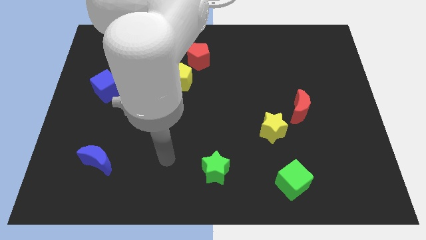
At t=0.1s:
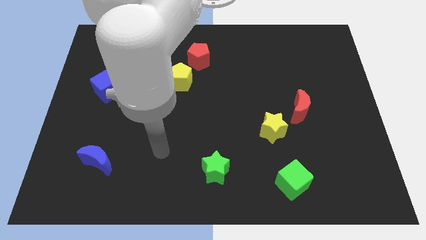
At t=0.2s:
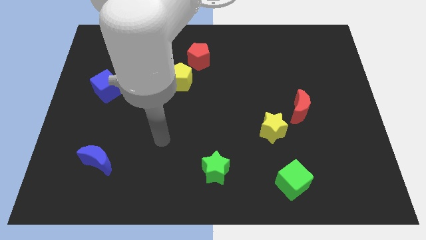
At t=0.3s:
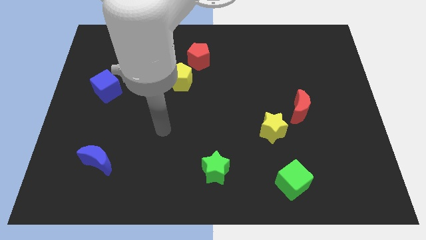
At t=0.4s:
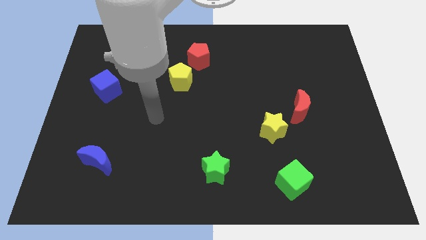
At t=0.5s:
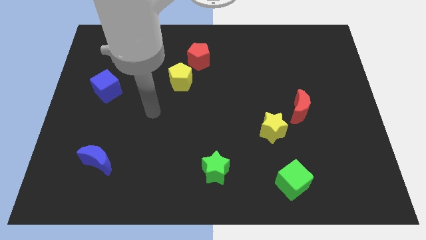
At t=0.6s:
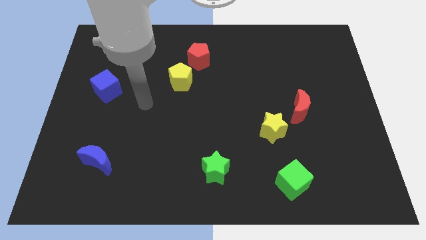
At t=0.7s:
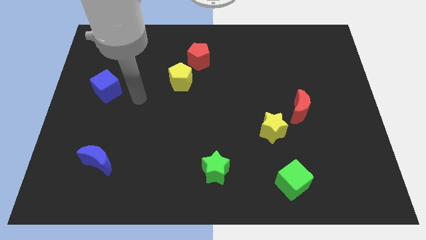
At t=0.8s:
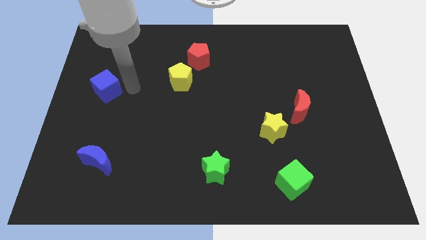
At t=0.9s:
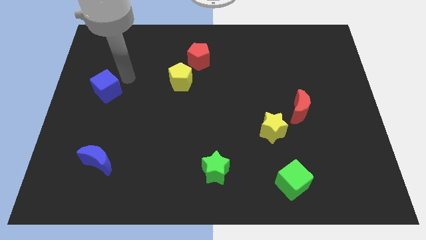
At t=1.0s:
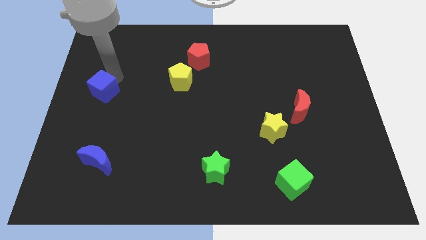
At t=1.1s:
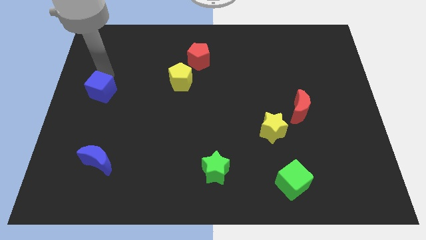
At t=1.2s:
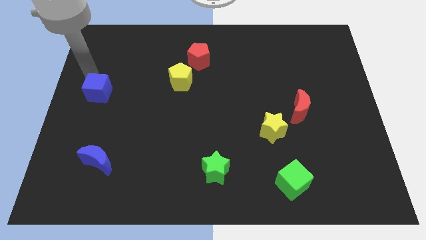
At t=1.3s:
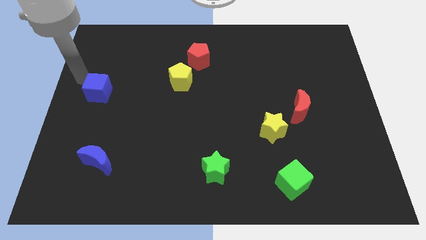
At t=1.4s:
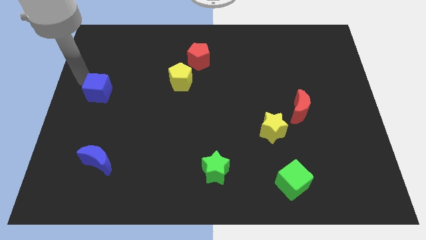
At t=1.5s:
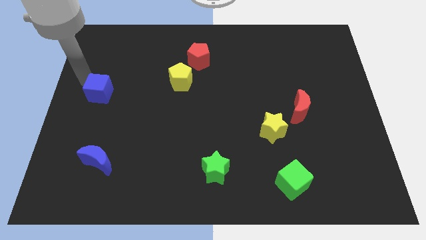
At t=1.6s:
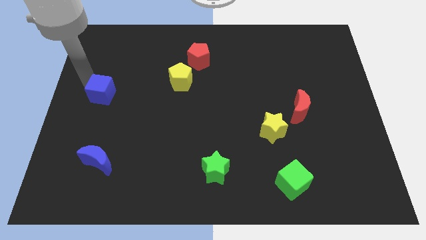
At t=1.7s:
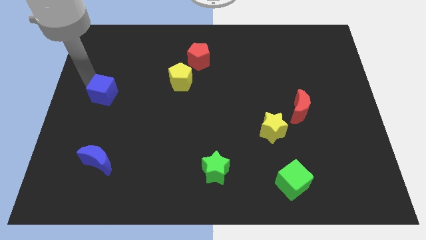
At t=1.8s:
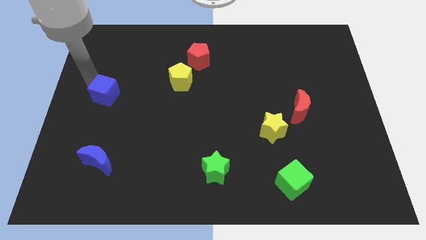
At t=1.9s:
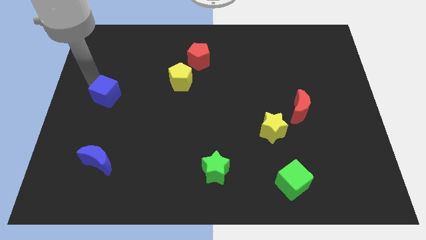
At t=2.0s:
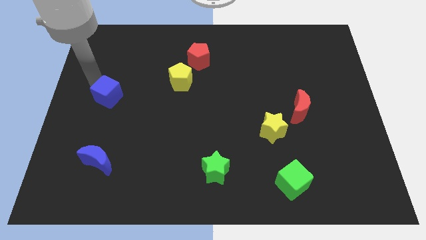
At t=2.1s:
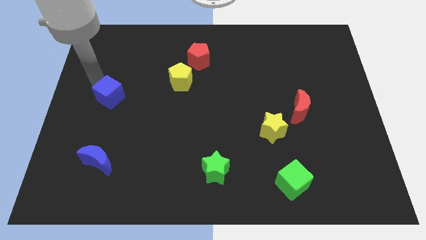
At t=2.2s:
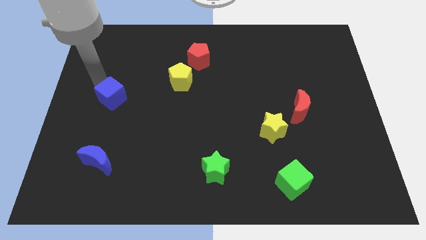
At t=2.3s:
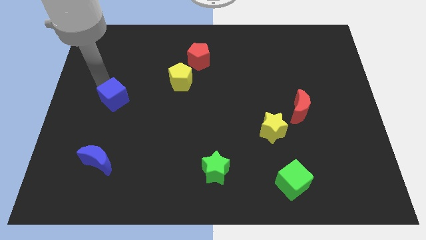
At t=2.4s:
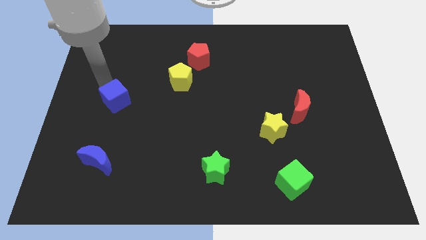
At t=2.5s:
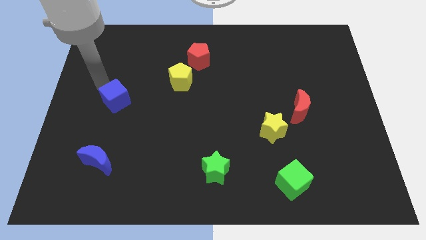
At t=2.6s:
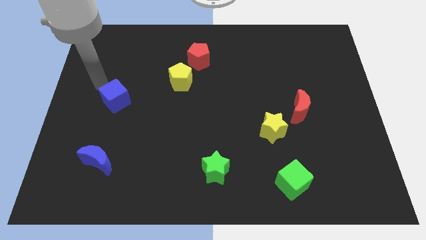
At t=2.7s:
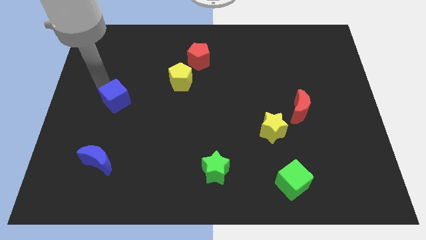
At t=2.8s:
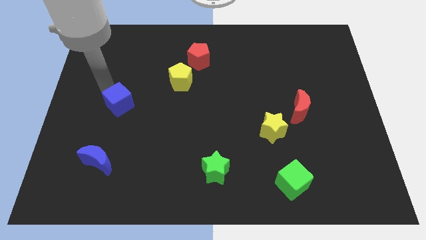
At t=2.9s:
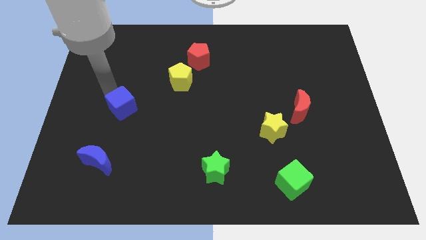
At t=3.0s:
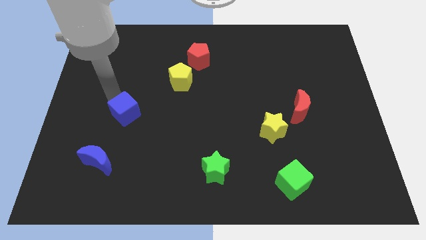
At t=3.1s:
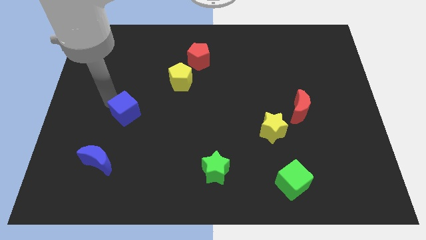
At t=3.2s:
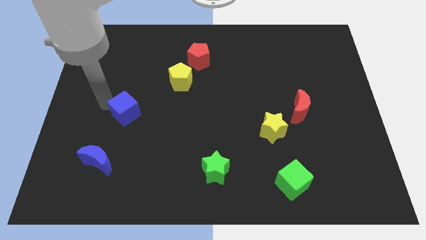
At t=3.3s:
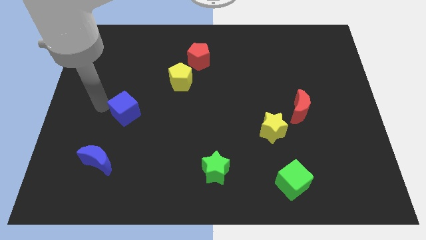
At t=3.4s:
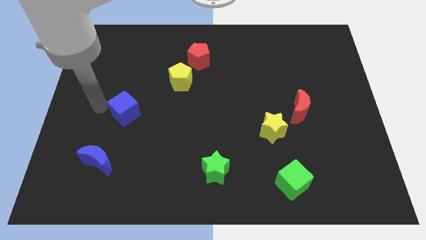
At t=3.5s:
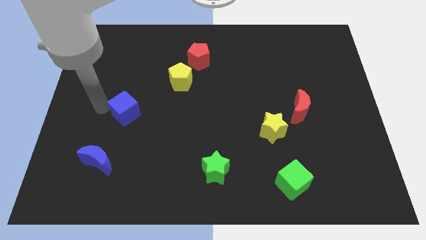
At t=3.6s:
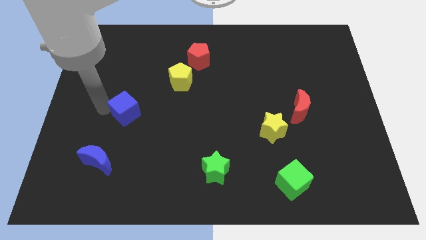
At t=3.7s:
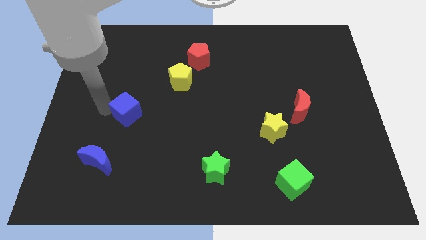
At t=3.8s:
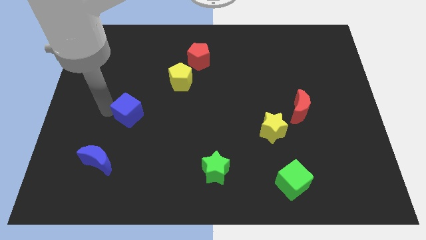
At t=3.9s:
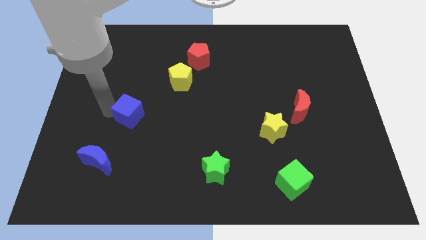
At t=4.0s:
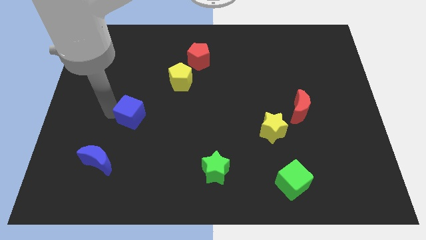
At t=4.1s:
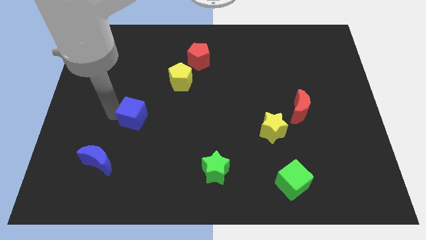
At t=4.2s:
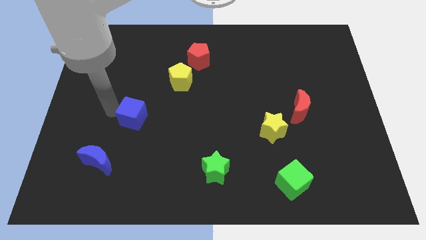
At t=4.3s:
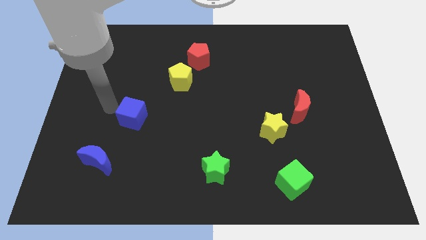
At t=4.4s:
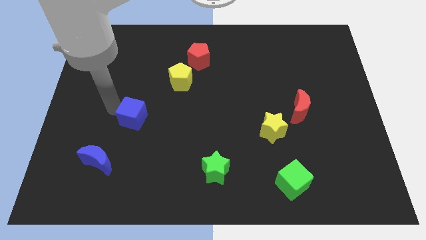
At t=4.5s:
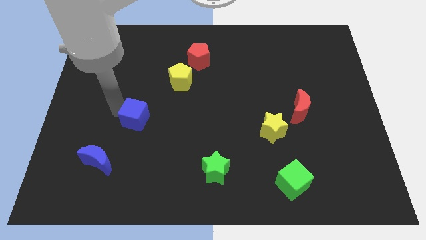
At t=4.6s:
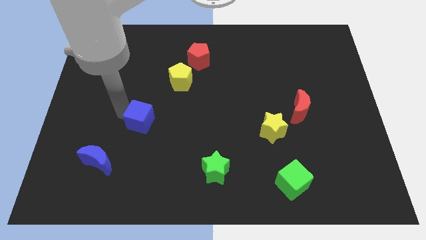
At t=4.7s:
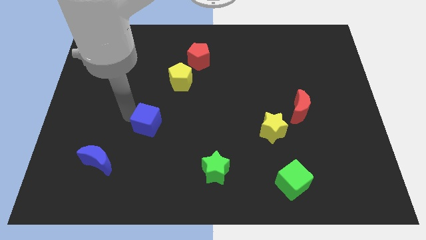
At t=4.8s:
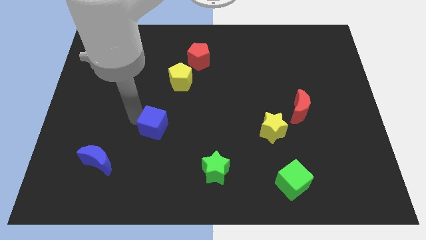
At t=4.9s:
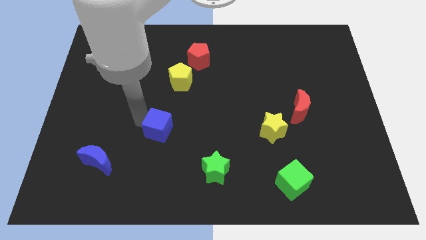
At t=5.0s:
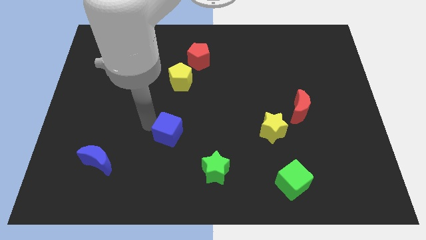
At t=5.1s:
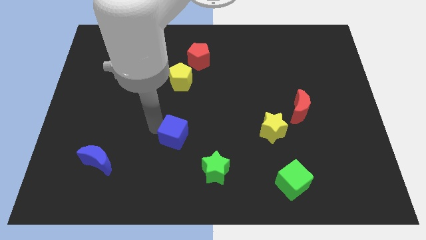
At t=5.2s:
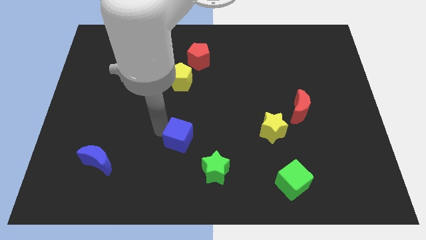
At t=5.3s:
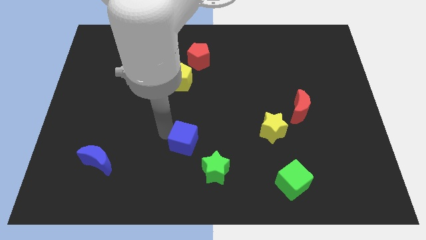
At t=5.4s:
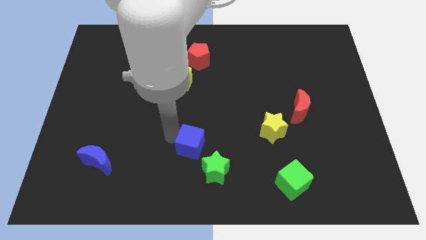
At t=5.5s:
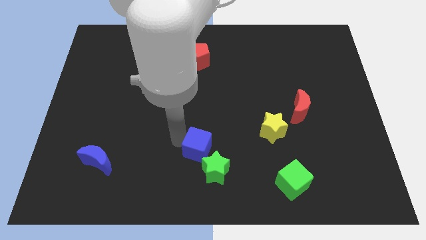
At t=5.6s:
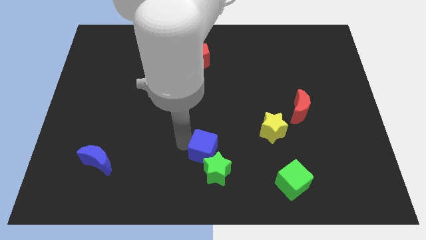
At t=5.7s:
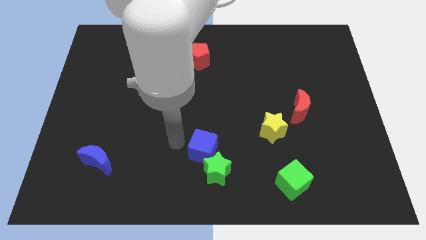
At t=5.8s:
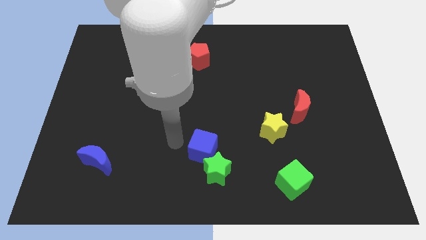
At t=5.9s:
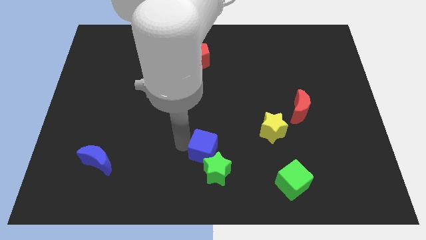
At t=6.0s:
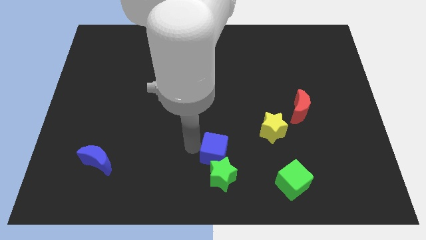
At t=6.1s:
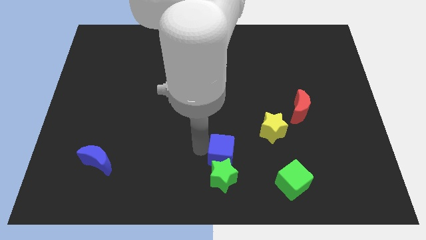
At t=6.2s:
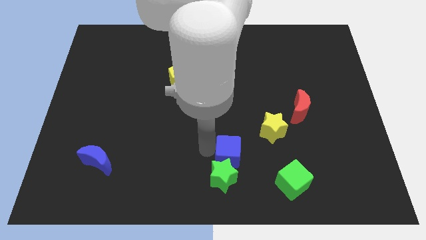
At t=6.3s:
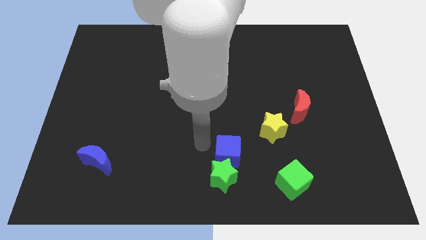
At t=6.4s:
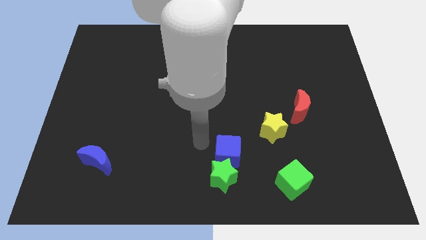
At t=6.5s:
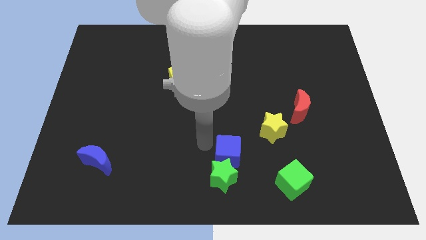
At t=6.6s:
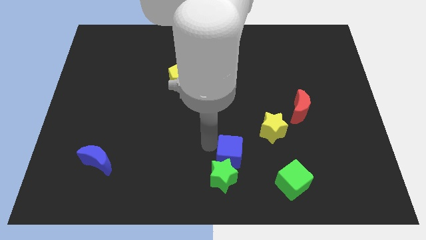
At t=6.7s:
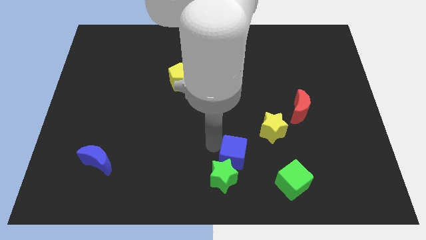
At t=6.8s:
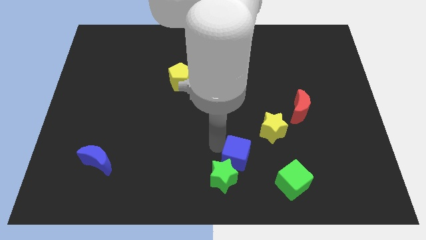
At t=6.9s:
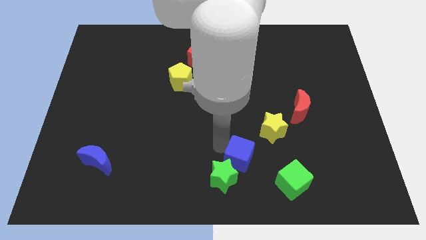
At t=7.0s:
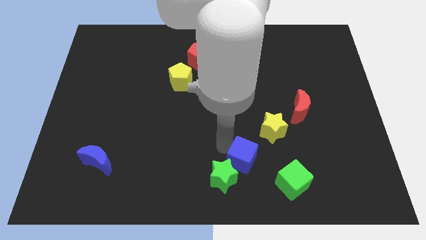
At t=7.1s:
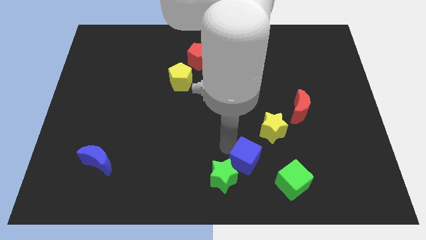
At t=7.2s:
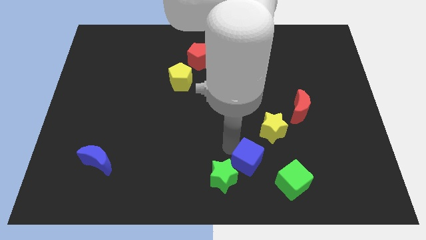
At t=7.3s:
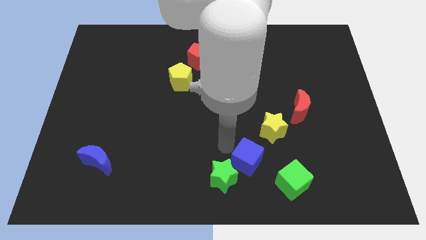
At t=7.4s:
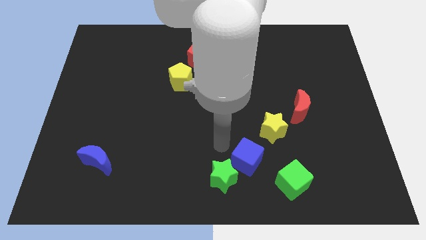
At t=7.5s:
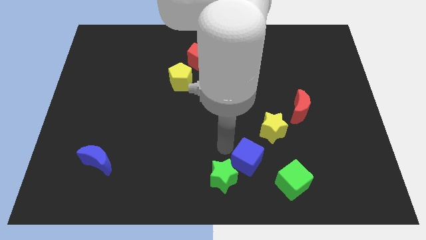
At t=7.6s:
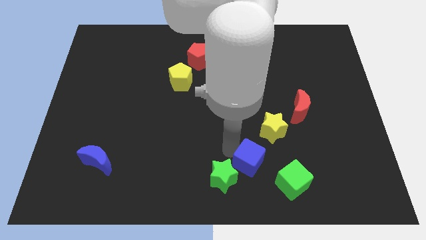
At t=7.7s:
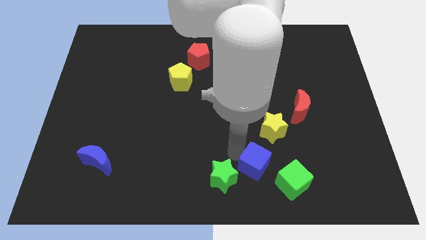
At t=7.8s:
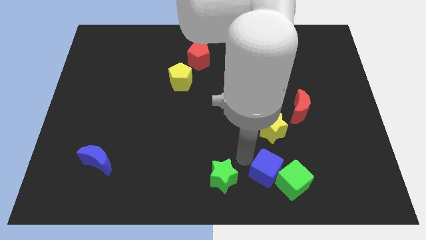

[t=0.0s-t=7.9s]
put the blue cube to the green cube
